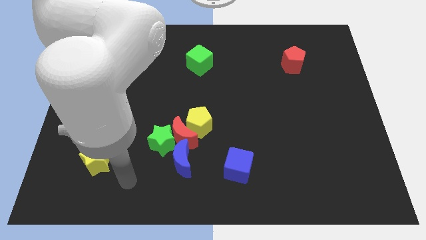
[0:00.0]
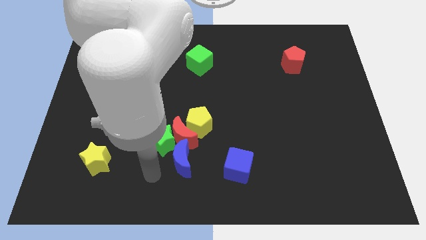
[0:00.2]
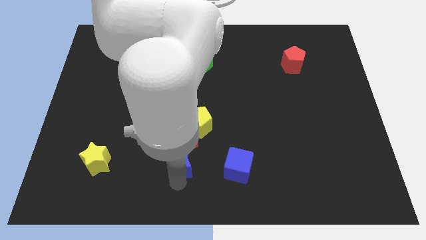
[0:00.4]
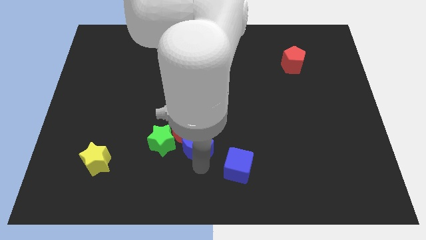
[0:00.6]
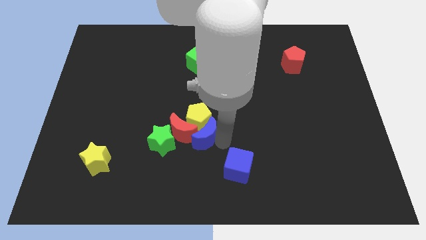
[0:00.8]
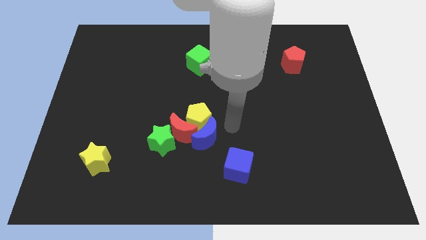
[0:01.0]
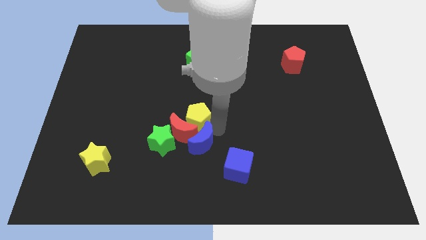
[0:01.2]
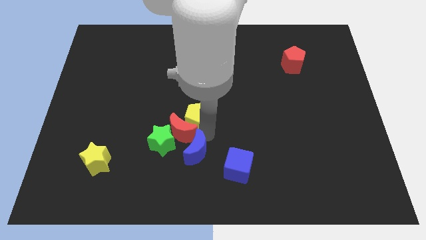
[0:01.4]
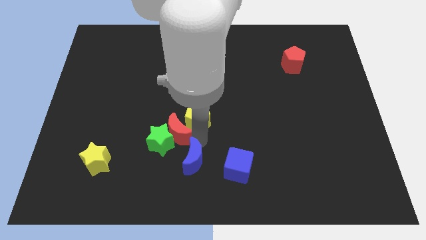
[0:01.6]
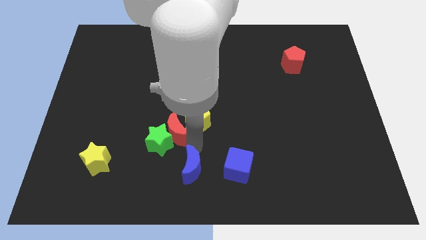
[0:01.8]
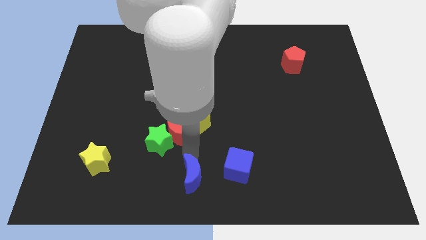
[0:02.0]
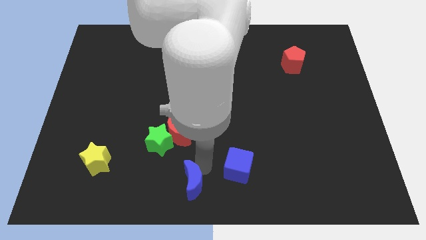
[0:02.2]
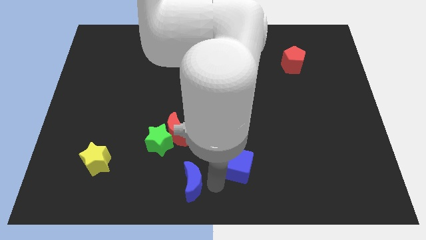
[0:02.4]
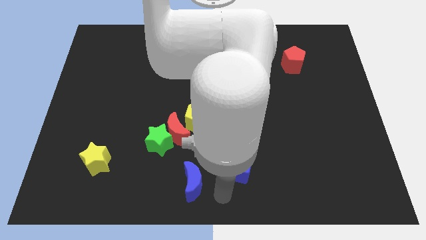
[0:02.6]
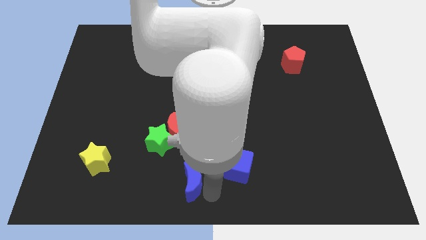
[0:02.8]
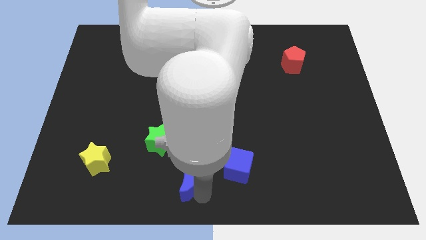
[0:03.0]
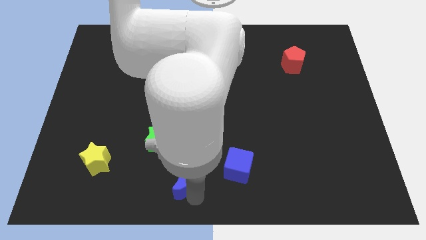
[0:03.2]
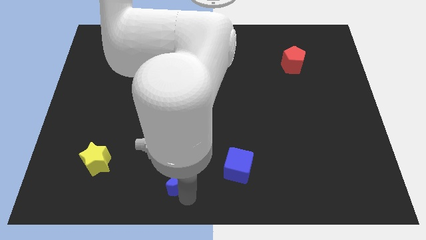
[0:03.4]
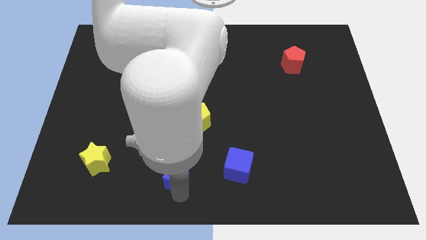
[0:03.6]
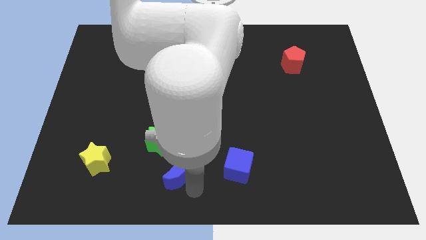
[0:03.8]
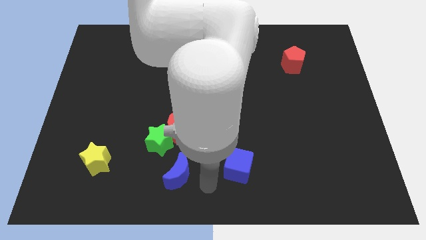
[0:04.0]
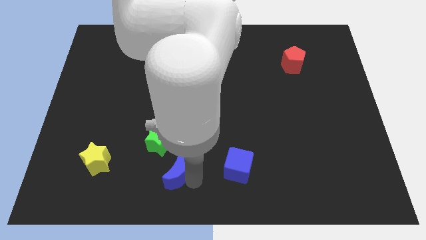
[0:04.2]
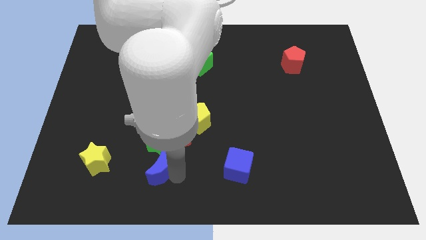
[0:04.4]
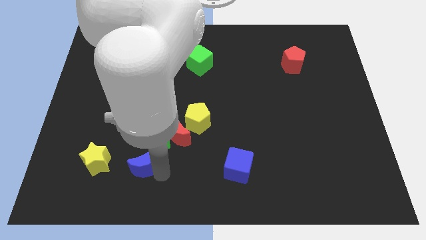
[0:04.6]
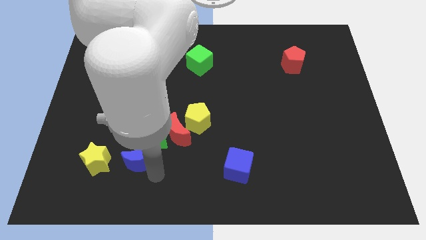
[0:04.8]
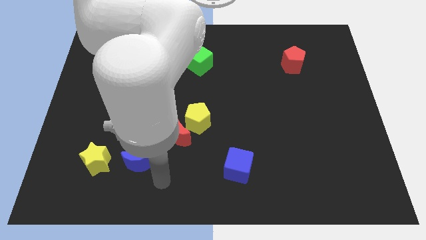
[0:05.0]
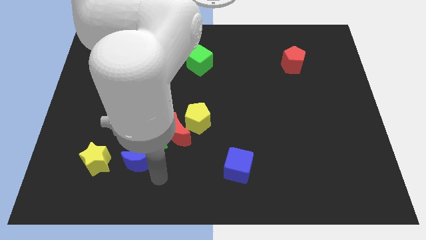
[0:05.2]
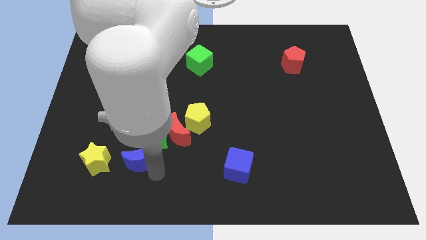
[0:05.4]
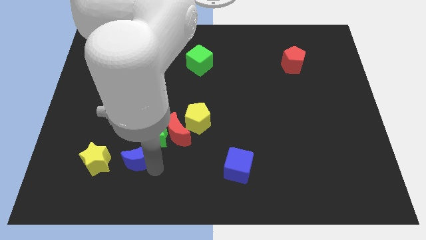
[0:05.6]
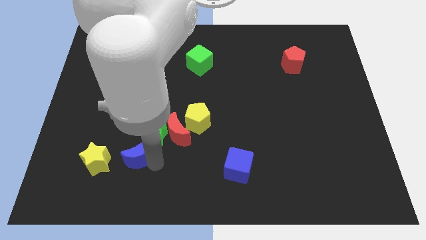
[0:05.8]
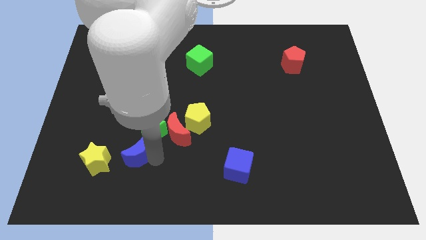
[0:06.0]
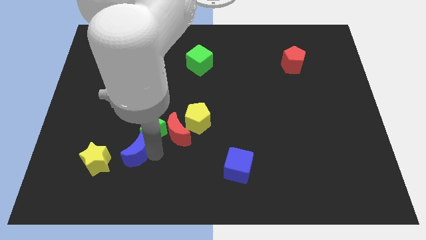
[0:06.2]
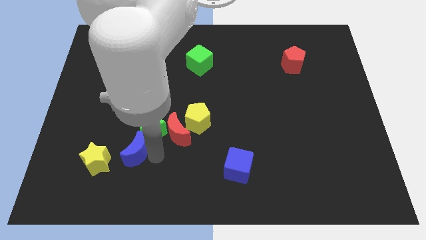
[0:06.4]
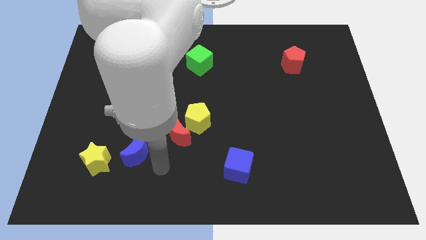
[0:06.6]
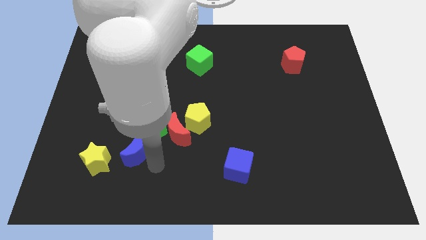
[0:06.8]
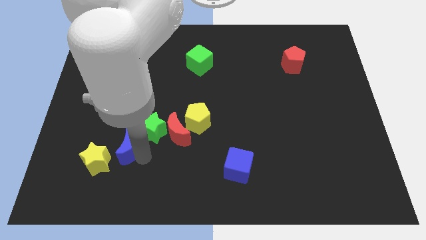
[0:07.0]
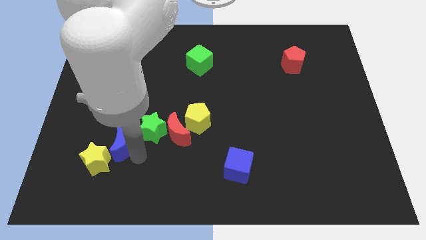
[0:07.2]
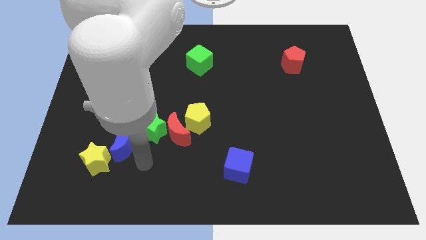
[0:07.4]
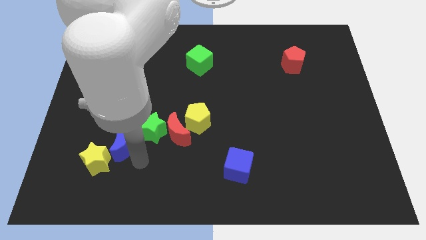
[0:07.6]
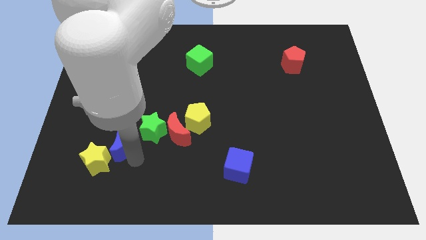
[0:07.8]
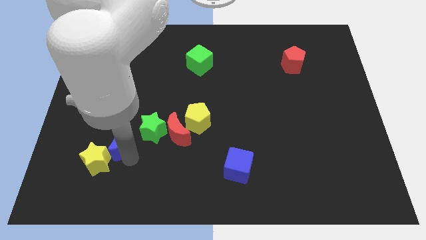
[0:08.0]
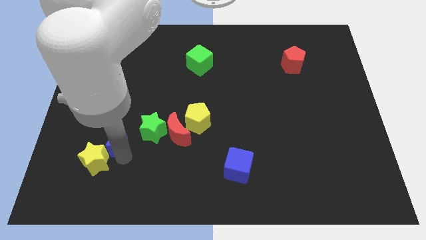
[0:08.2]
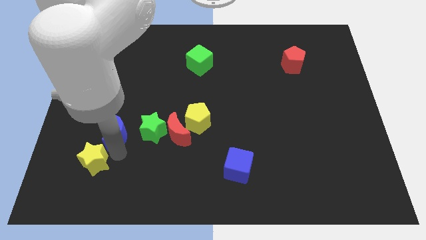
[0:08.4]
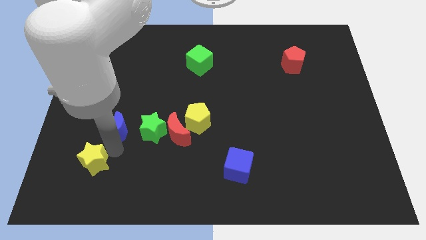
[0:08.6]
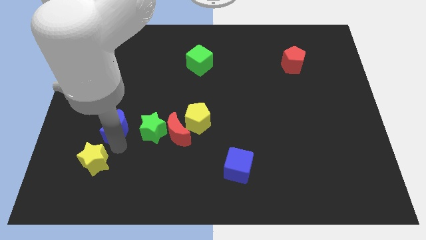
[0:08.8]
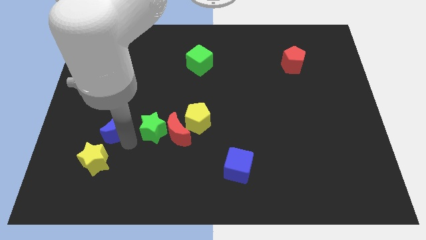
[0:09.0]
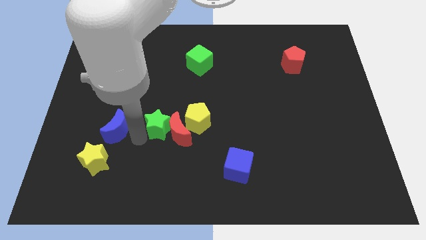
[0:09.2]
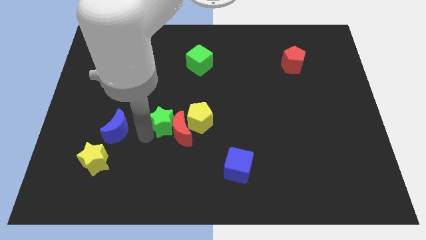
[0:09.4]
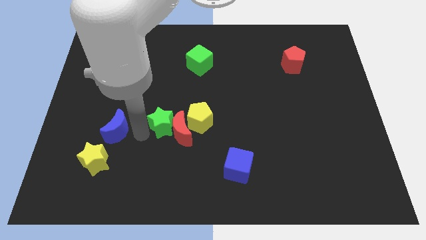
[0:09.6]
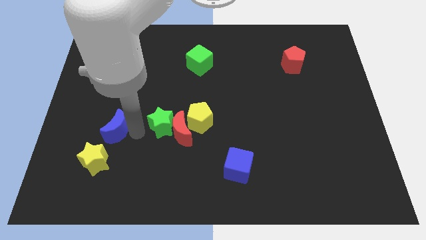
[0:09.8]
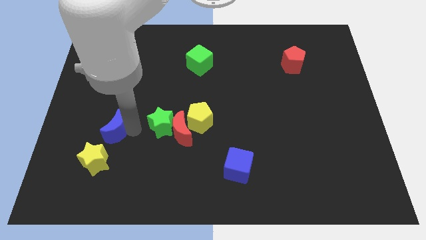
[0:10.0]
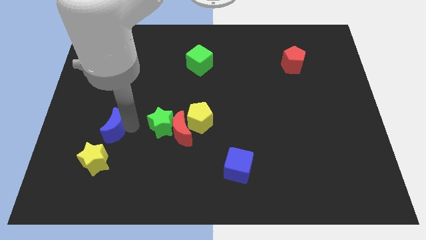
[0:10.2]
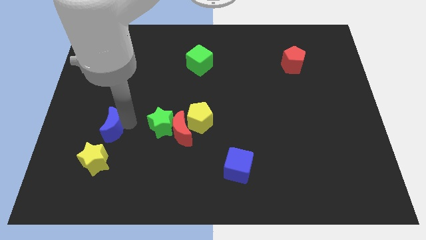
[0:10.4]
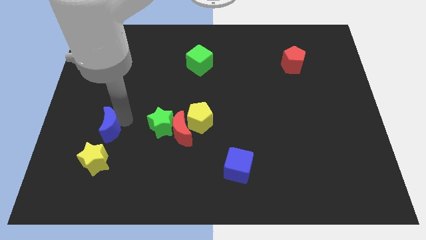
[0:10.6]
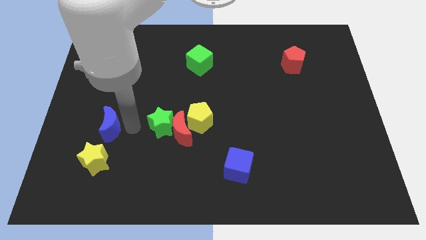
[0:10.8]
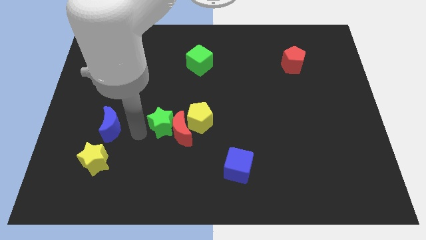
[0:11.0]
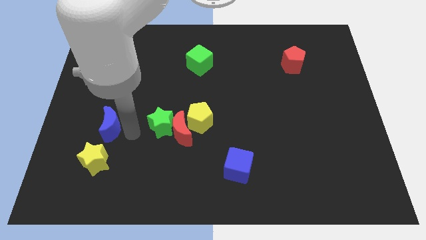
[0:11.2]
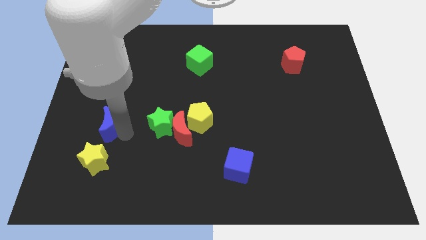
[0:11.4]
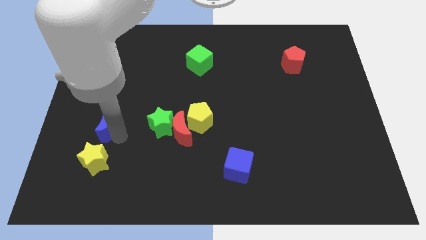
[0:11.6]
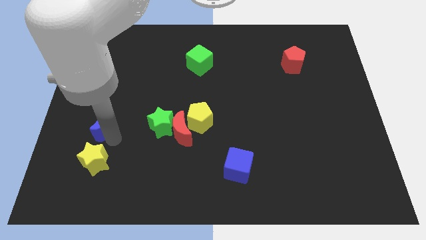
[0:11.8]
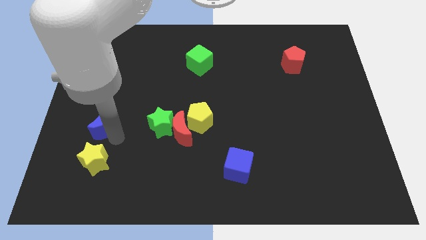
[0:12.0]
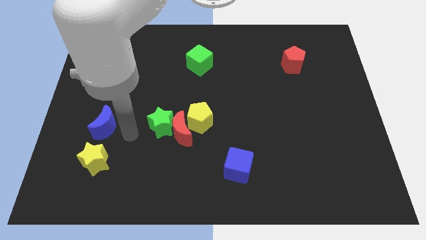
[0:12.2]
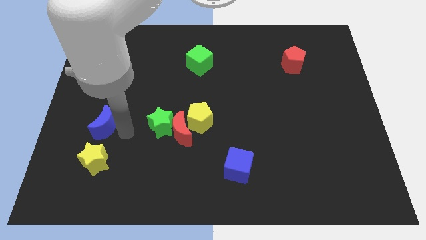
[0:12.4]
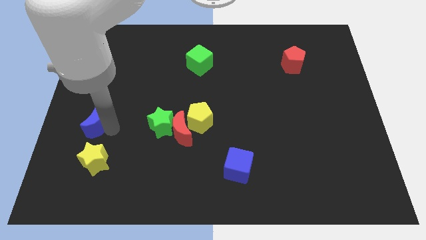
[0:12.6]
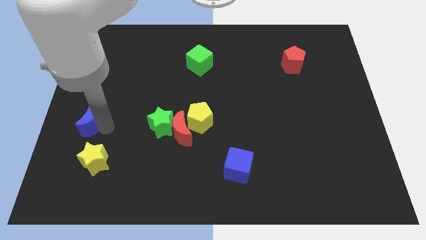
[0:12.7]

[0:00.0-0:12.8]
slide the blue moon to the center left
